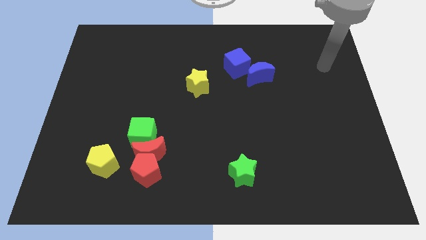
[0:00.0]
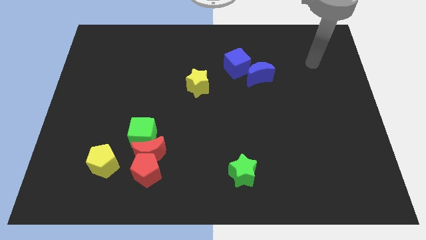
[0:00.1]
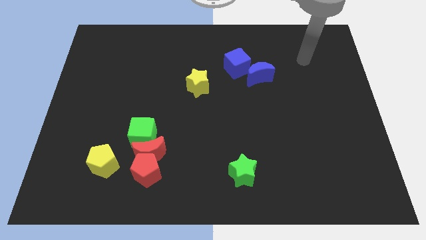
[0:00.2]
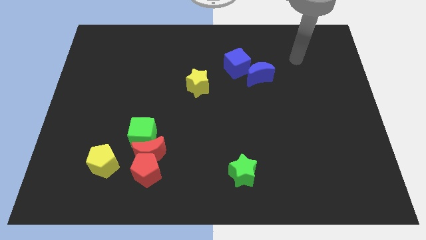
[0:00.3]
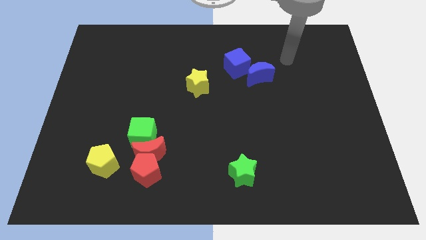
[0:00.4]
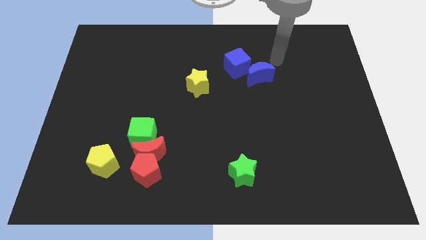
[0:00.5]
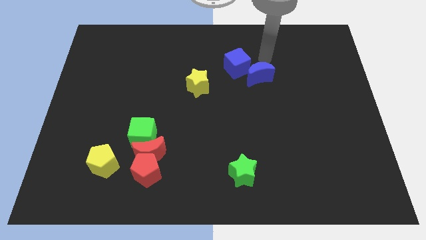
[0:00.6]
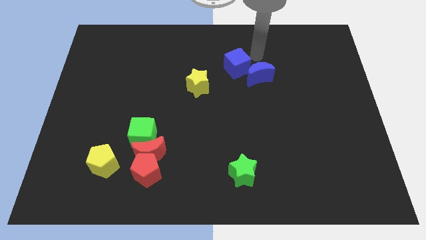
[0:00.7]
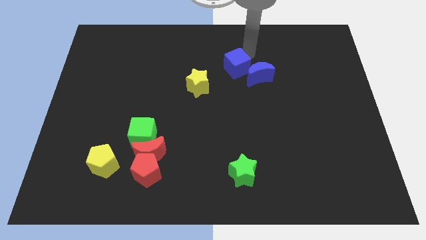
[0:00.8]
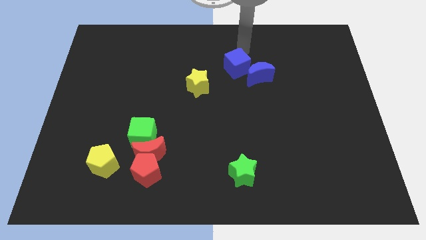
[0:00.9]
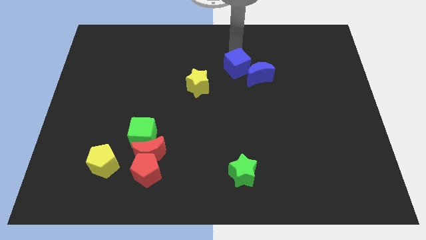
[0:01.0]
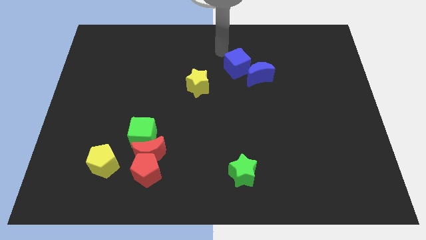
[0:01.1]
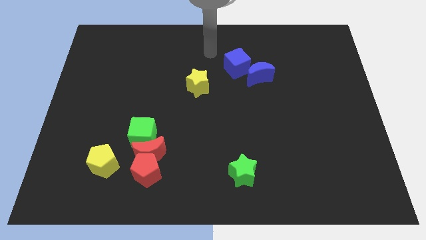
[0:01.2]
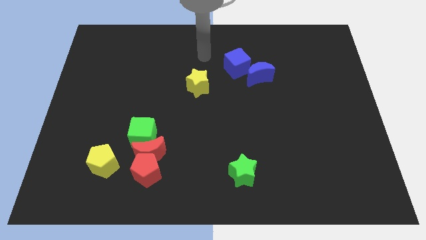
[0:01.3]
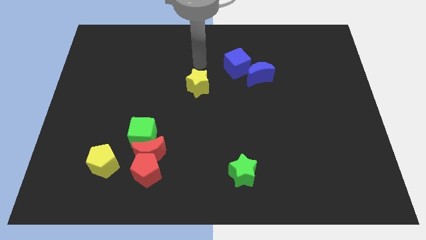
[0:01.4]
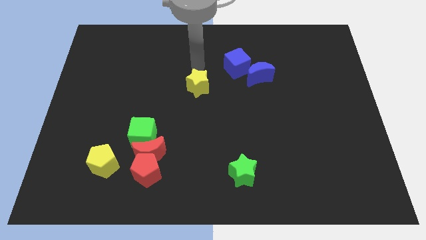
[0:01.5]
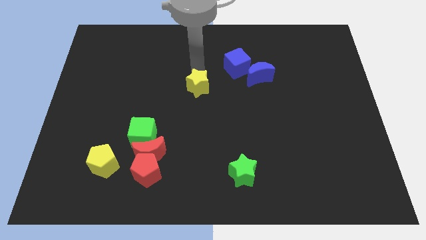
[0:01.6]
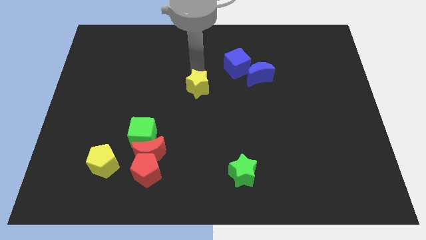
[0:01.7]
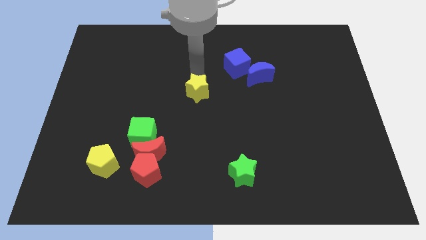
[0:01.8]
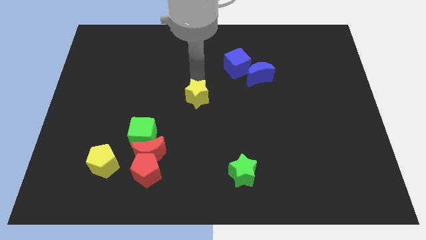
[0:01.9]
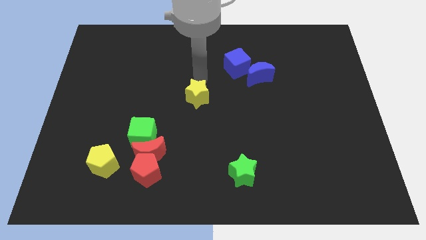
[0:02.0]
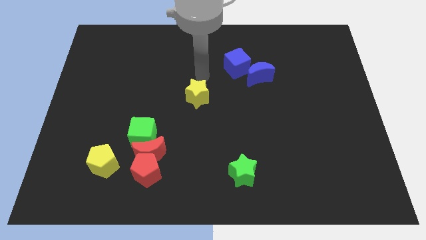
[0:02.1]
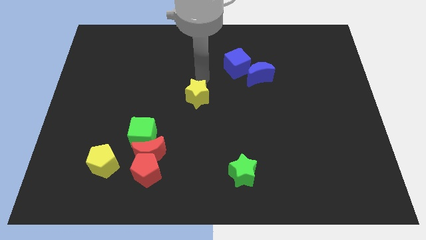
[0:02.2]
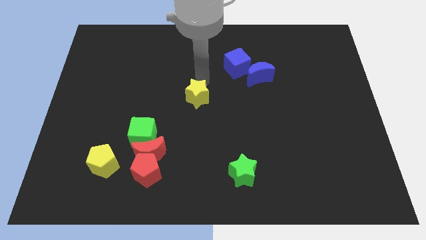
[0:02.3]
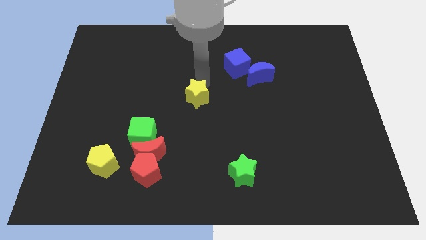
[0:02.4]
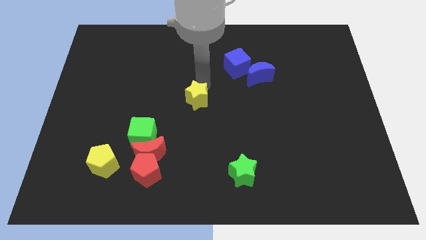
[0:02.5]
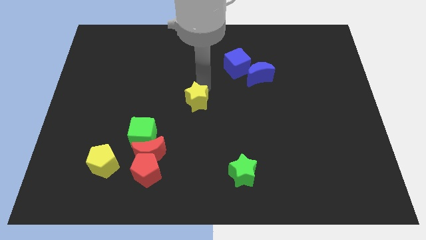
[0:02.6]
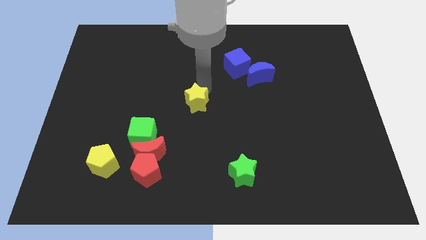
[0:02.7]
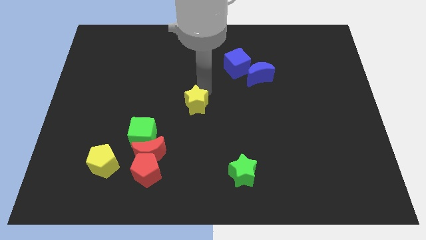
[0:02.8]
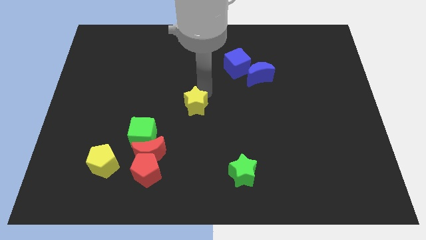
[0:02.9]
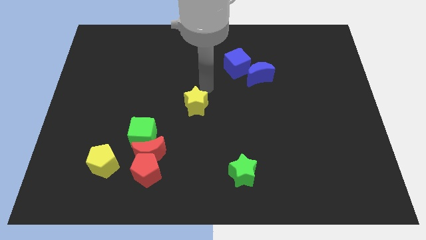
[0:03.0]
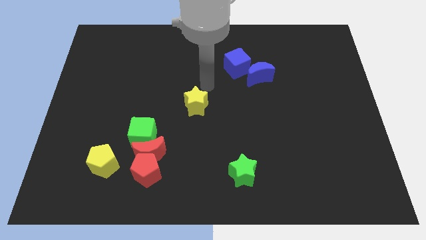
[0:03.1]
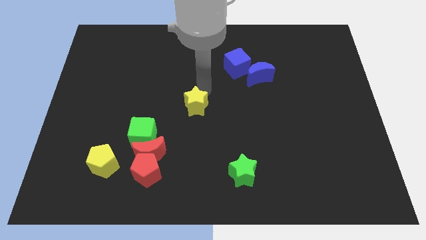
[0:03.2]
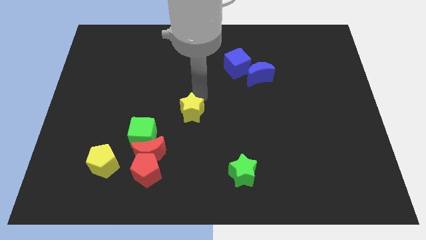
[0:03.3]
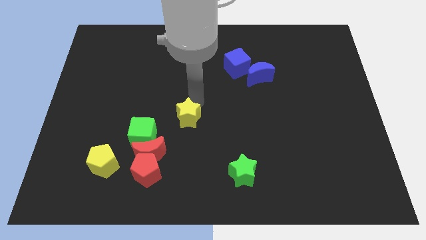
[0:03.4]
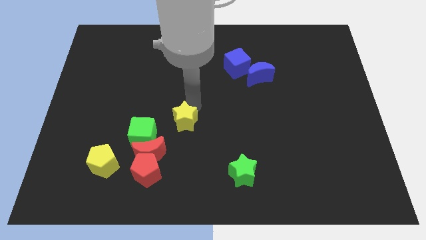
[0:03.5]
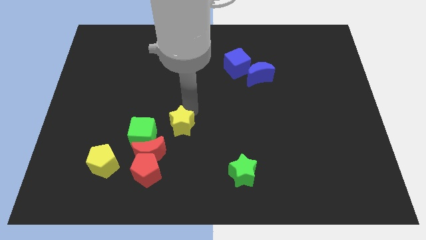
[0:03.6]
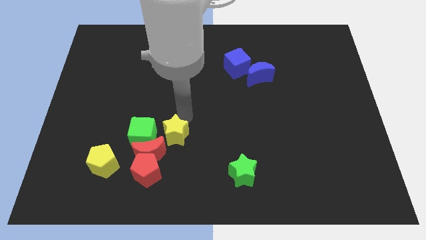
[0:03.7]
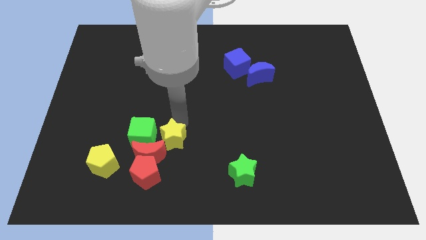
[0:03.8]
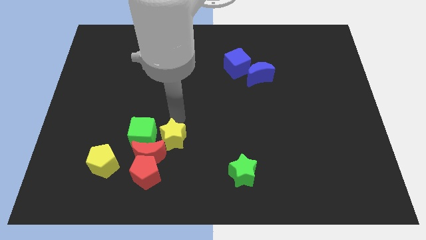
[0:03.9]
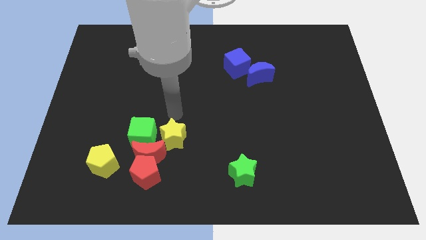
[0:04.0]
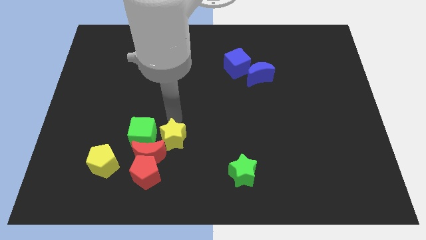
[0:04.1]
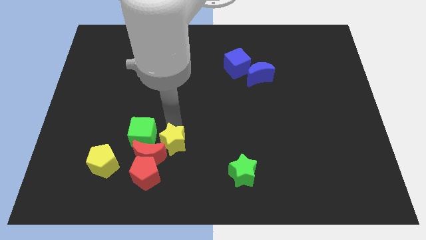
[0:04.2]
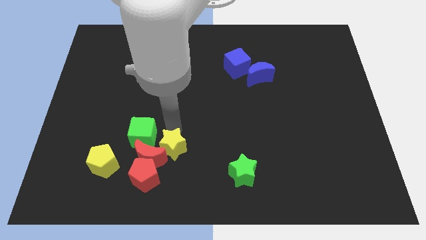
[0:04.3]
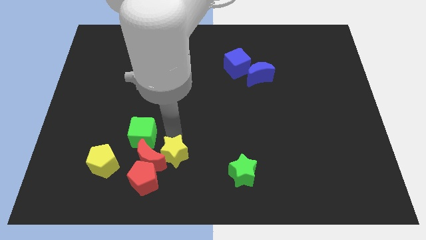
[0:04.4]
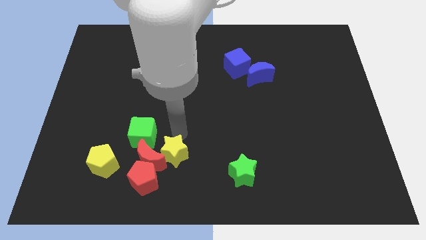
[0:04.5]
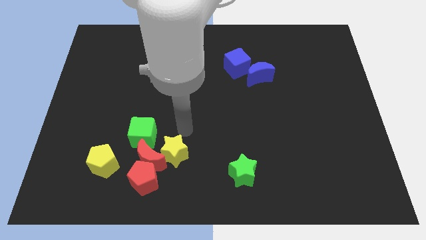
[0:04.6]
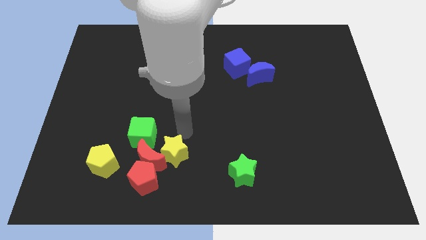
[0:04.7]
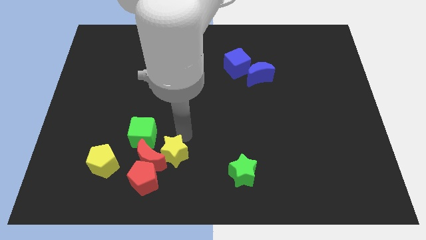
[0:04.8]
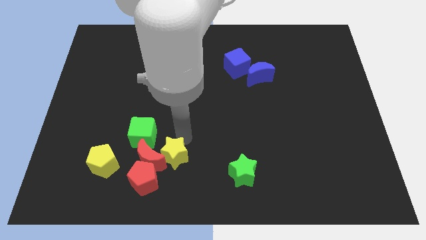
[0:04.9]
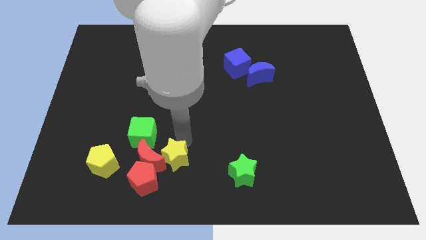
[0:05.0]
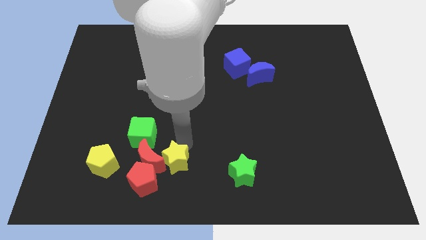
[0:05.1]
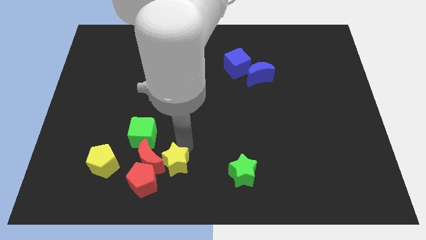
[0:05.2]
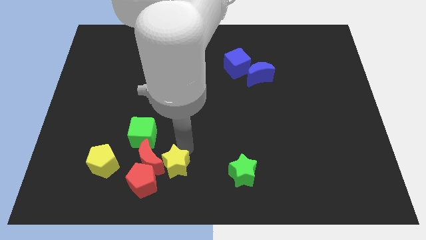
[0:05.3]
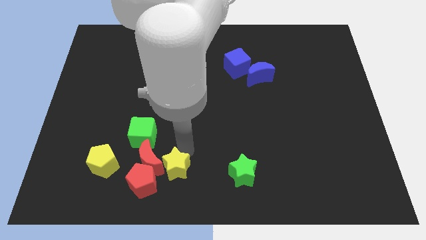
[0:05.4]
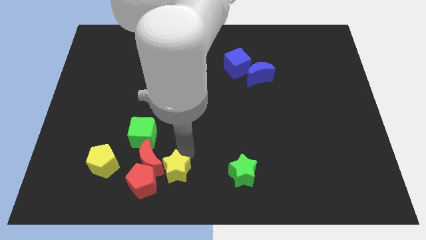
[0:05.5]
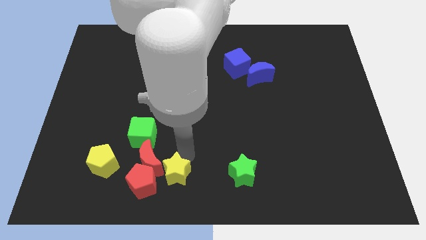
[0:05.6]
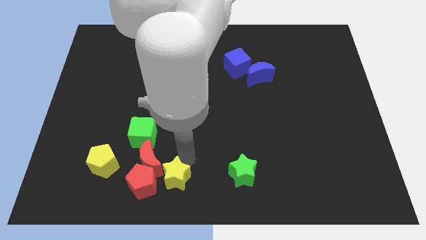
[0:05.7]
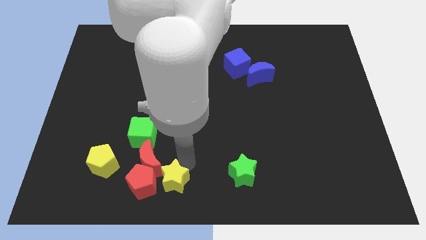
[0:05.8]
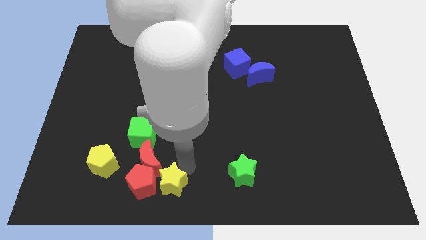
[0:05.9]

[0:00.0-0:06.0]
put the yellow star to the red pentagon

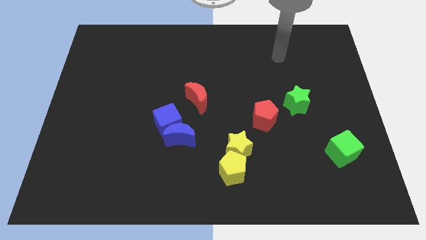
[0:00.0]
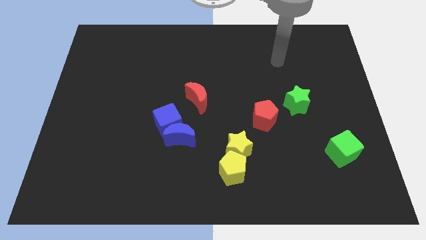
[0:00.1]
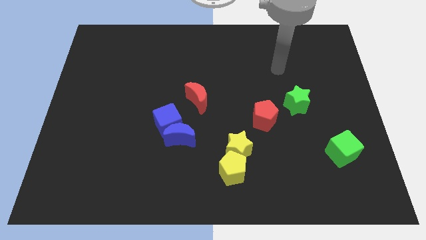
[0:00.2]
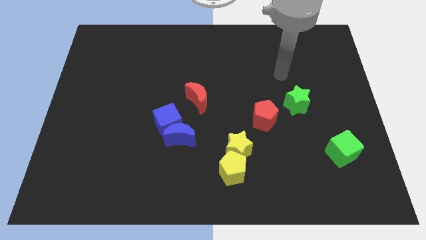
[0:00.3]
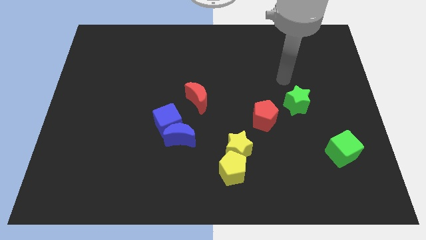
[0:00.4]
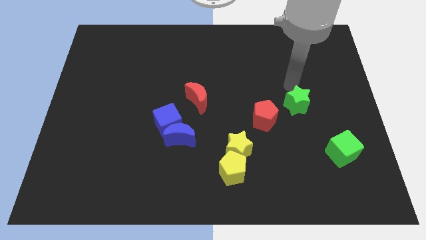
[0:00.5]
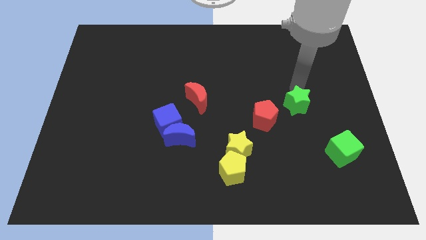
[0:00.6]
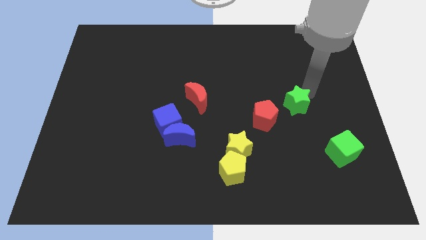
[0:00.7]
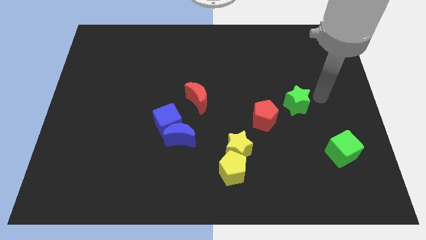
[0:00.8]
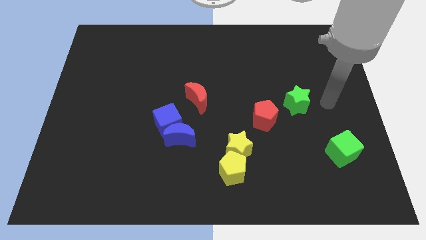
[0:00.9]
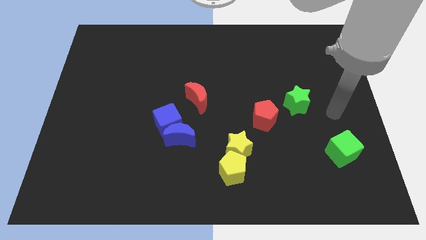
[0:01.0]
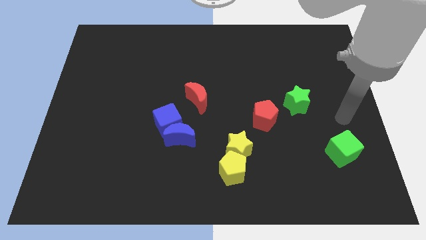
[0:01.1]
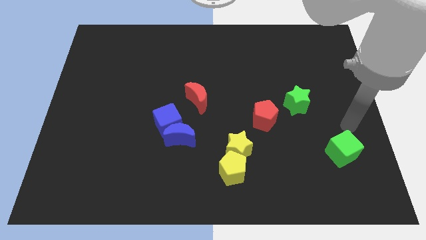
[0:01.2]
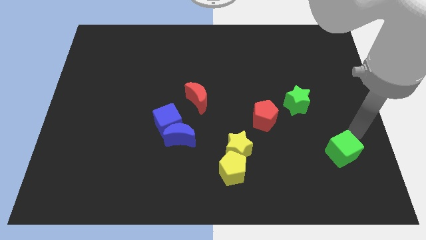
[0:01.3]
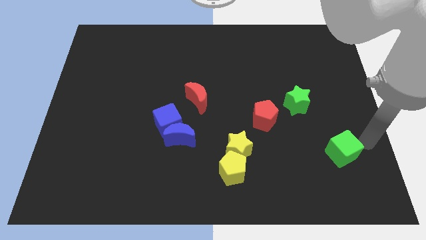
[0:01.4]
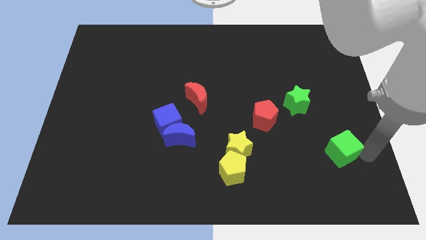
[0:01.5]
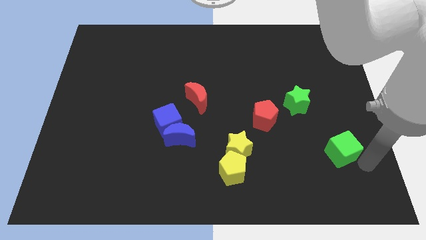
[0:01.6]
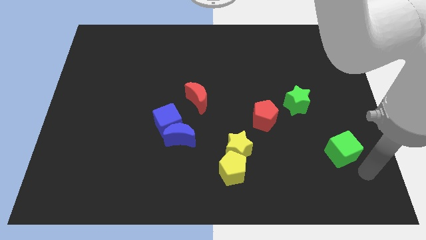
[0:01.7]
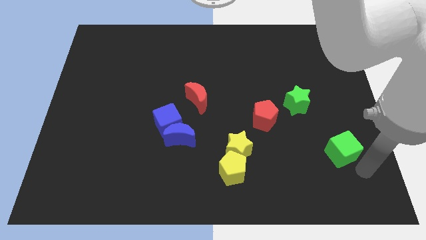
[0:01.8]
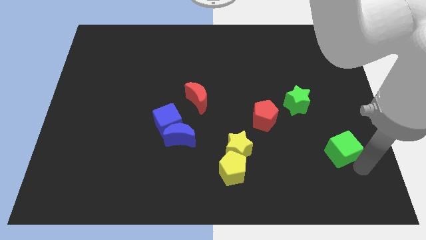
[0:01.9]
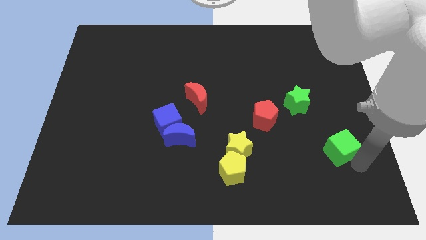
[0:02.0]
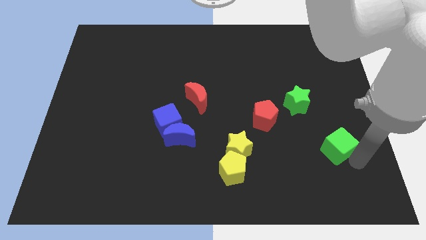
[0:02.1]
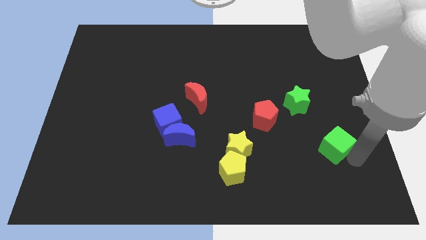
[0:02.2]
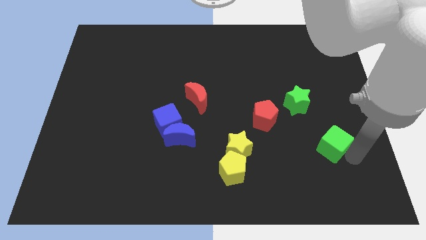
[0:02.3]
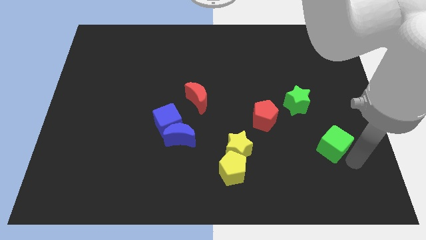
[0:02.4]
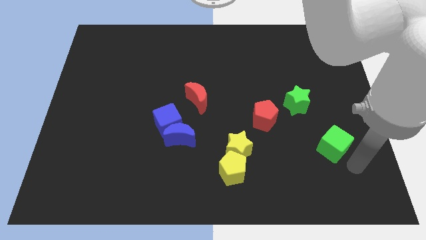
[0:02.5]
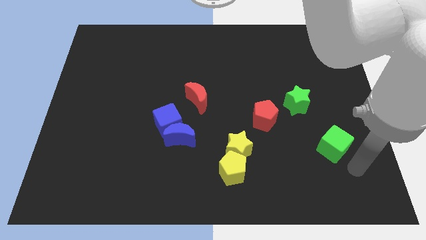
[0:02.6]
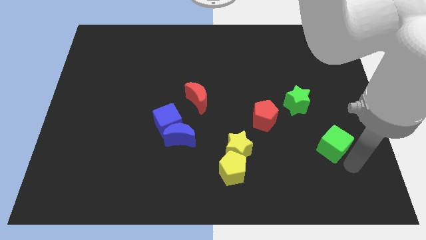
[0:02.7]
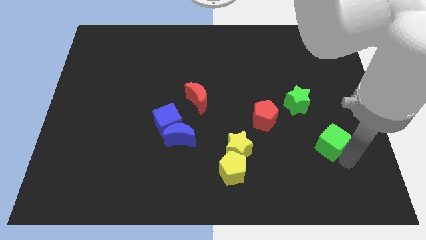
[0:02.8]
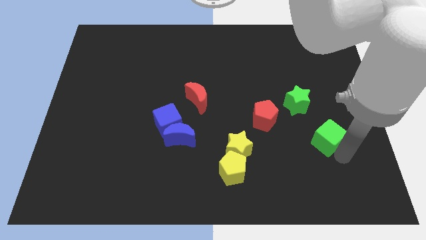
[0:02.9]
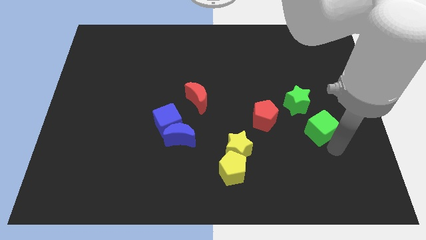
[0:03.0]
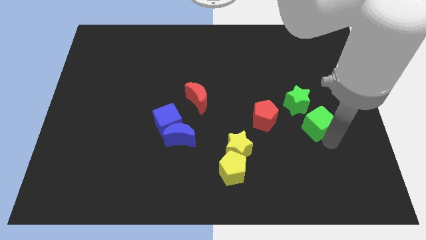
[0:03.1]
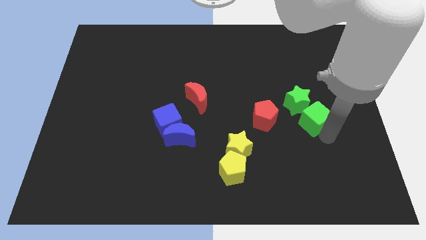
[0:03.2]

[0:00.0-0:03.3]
slide the green cube close to the green star
